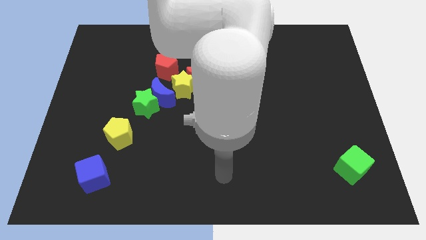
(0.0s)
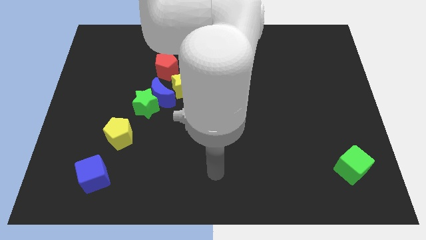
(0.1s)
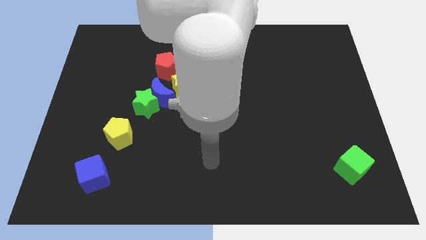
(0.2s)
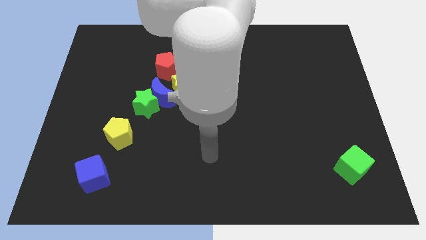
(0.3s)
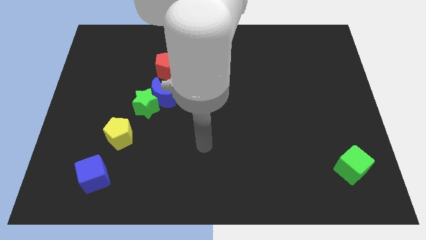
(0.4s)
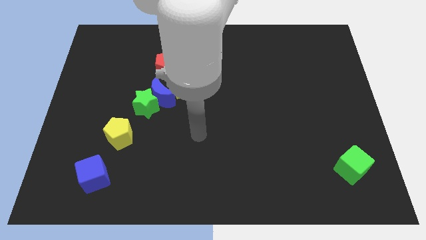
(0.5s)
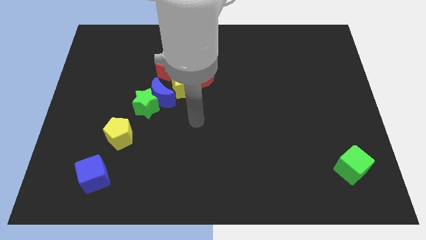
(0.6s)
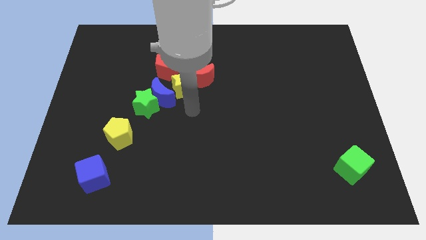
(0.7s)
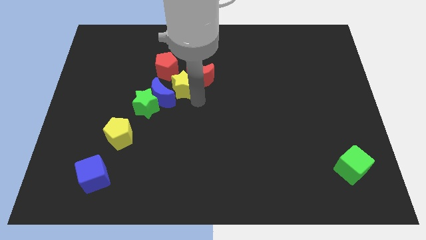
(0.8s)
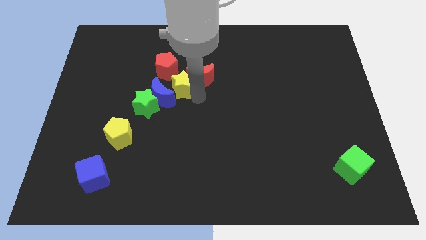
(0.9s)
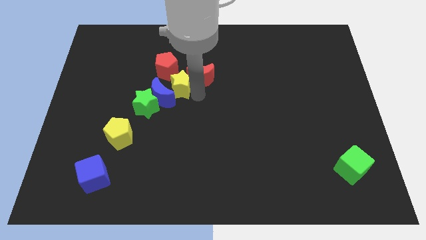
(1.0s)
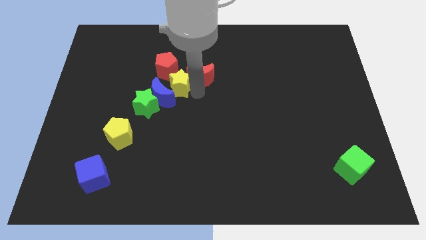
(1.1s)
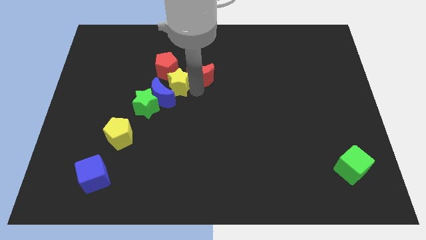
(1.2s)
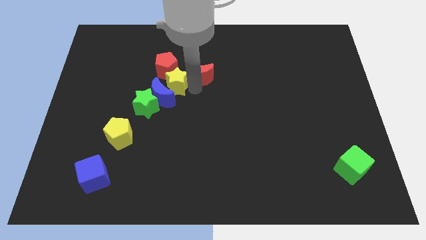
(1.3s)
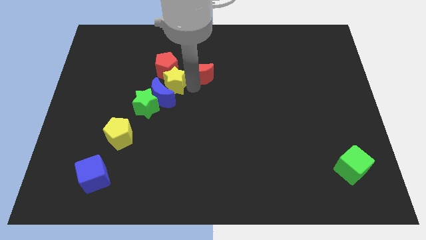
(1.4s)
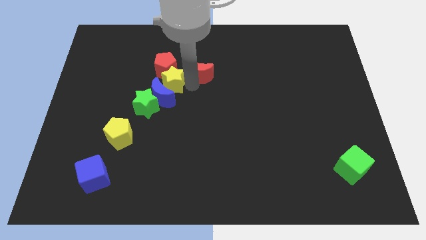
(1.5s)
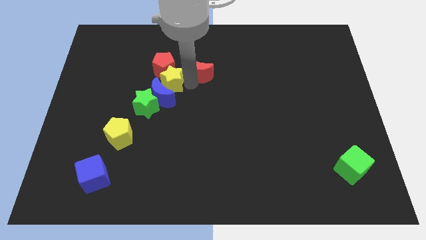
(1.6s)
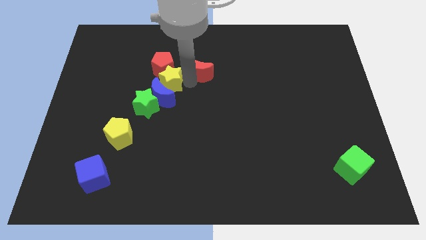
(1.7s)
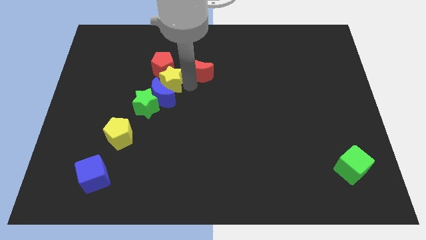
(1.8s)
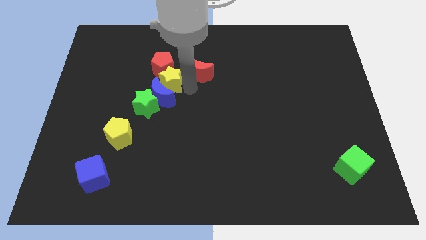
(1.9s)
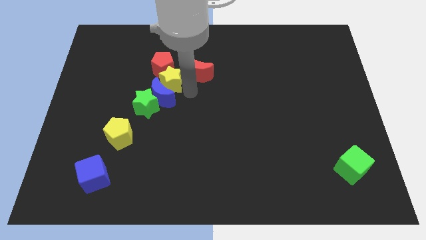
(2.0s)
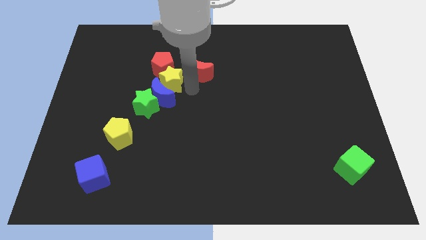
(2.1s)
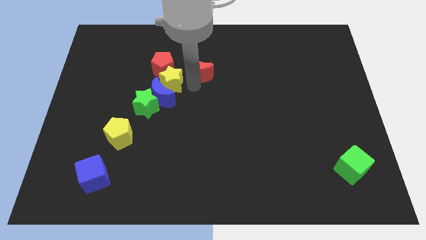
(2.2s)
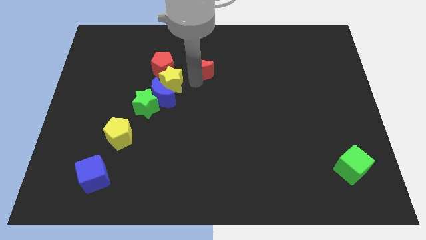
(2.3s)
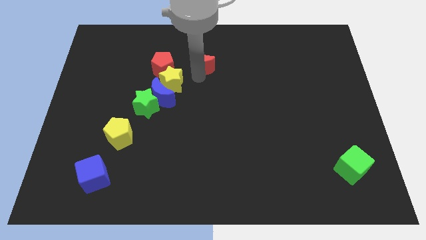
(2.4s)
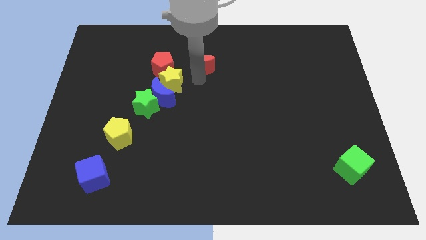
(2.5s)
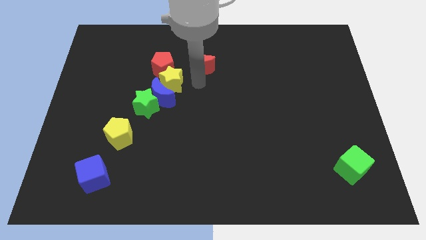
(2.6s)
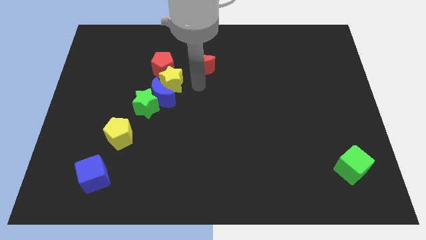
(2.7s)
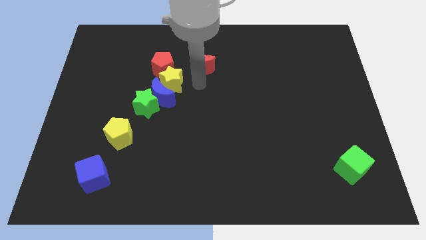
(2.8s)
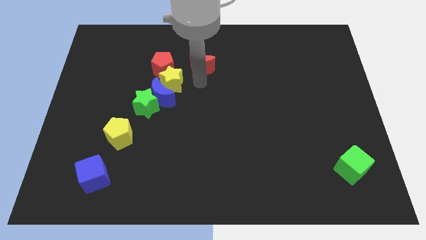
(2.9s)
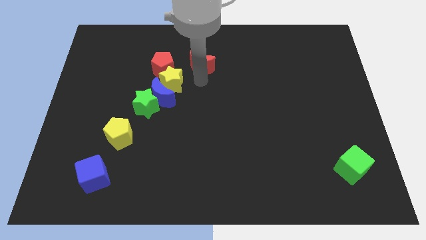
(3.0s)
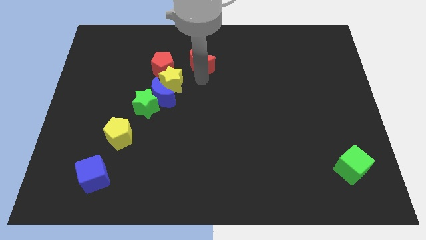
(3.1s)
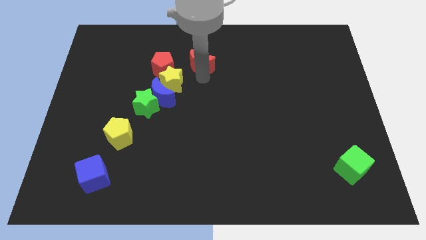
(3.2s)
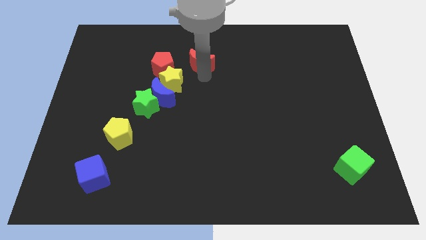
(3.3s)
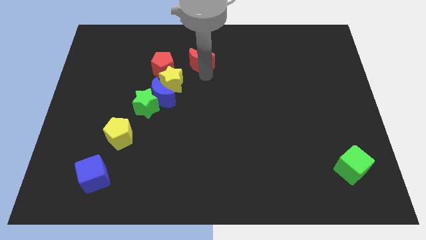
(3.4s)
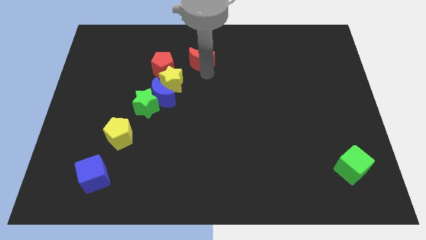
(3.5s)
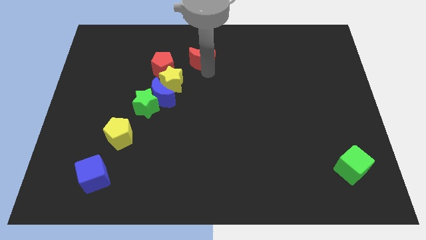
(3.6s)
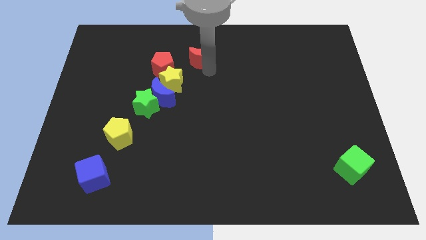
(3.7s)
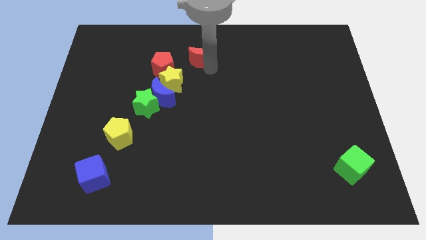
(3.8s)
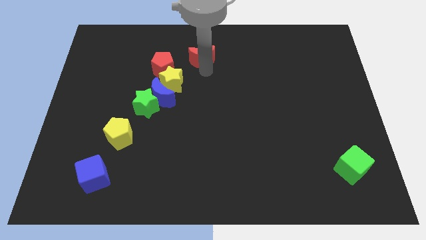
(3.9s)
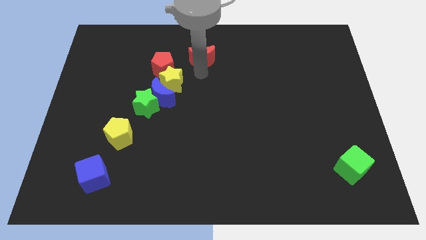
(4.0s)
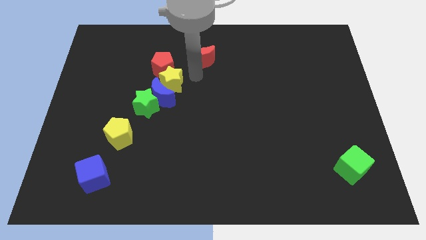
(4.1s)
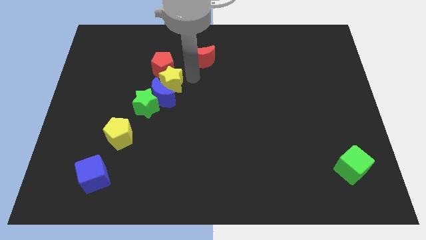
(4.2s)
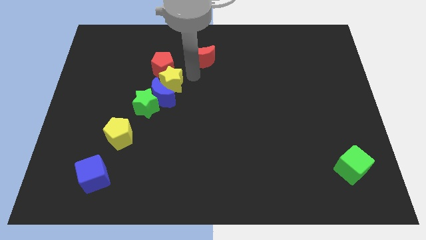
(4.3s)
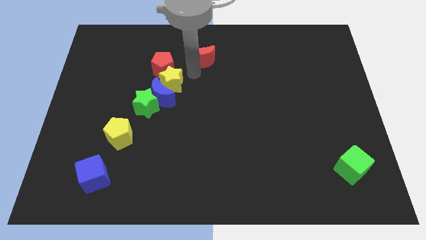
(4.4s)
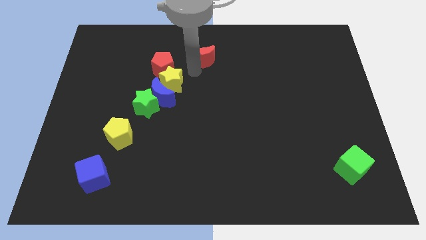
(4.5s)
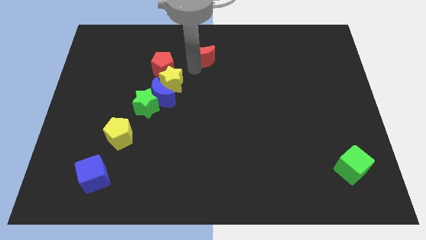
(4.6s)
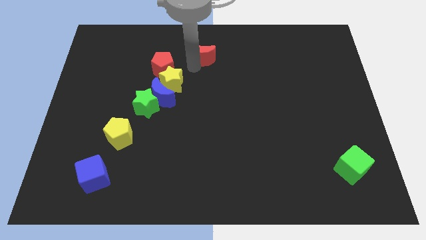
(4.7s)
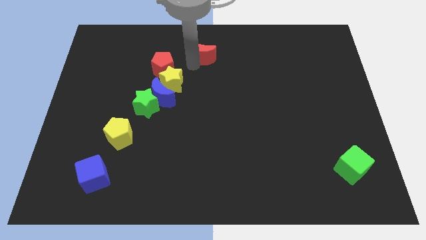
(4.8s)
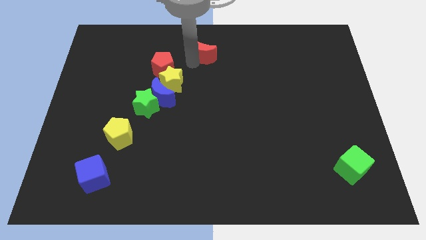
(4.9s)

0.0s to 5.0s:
move the red moon to the top side

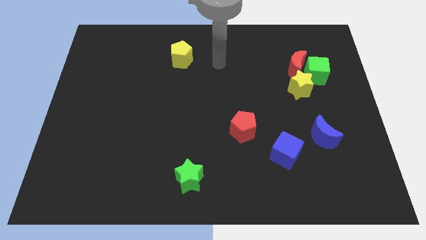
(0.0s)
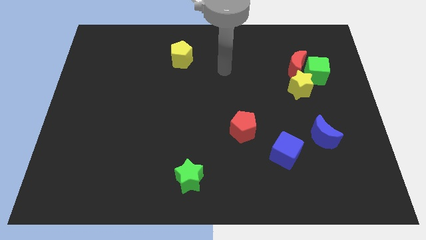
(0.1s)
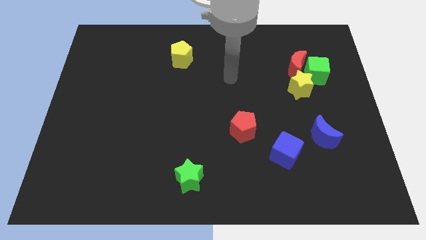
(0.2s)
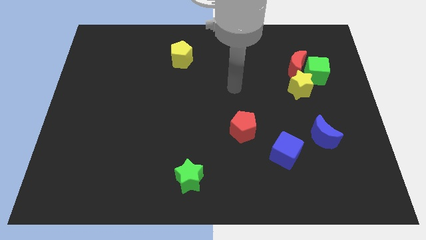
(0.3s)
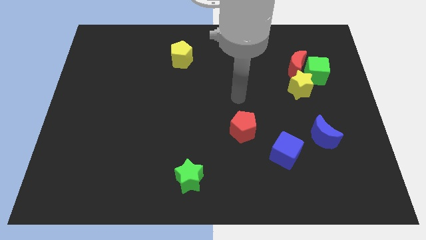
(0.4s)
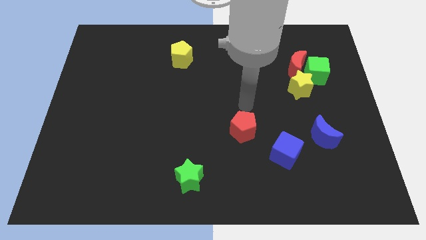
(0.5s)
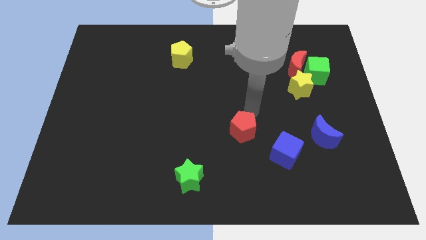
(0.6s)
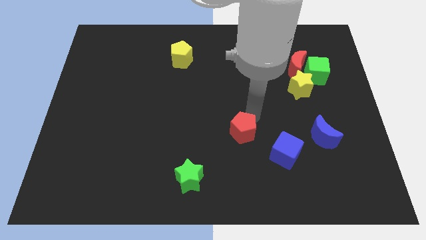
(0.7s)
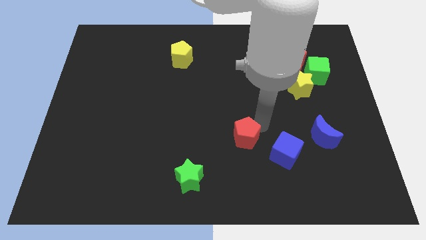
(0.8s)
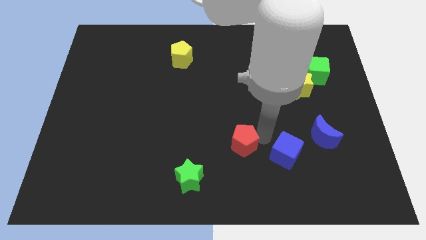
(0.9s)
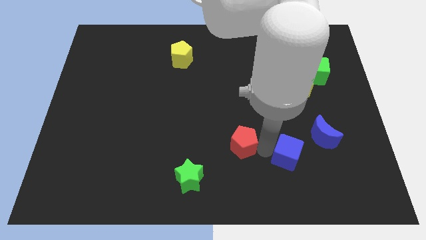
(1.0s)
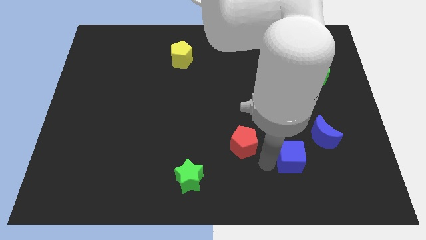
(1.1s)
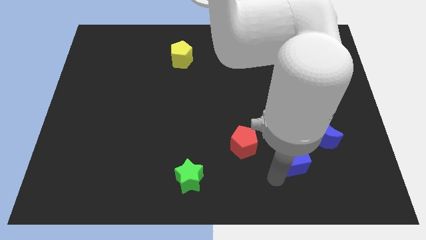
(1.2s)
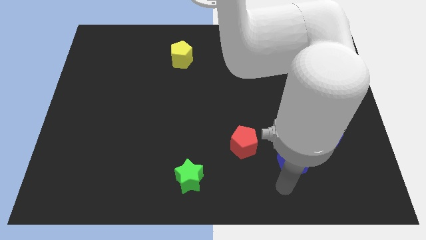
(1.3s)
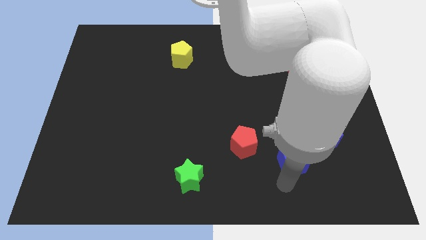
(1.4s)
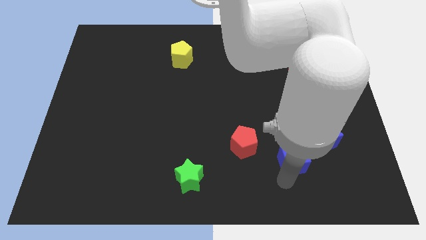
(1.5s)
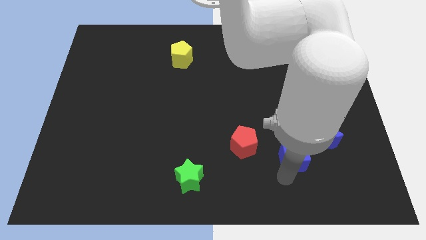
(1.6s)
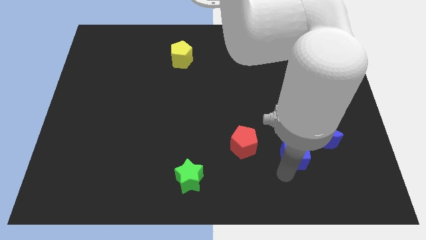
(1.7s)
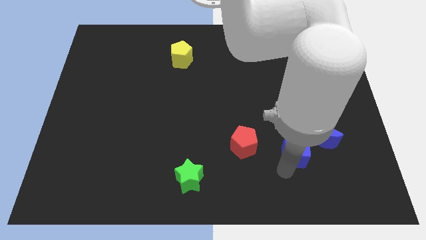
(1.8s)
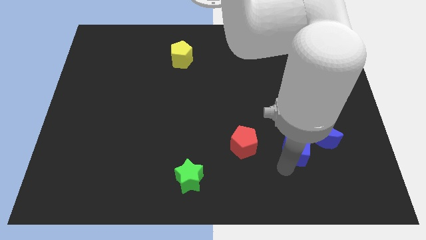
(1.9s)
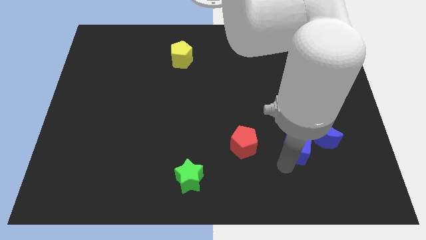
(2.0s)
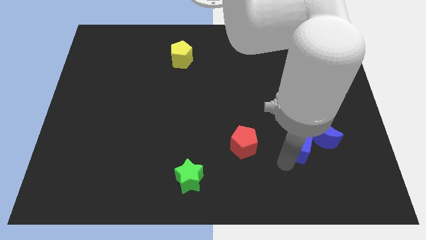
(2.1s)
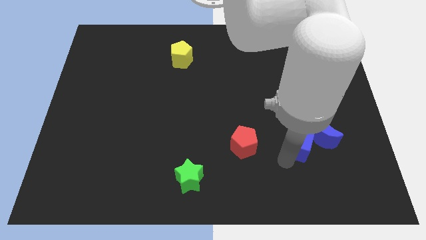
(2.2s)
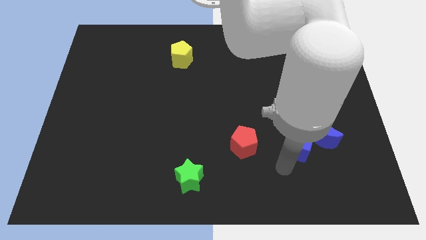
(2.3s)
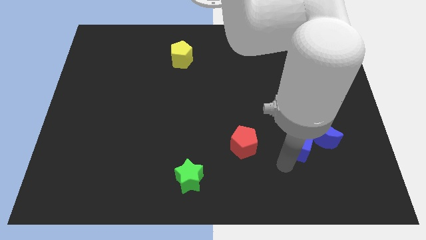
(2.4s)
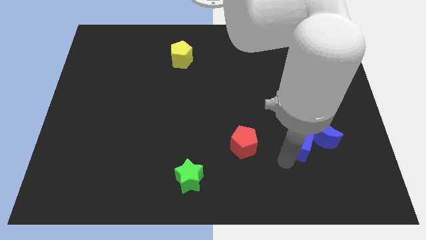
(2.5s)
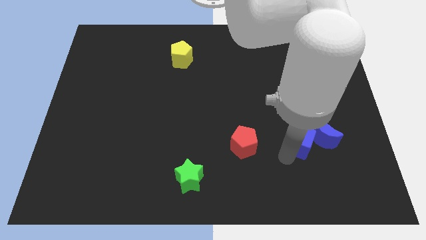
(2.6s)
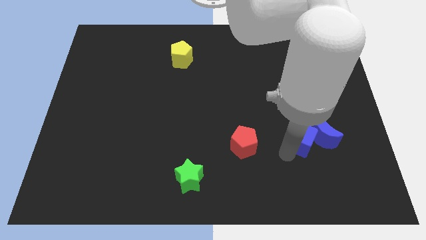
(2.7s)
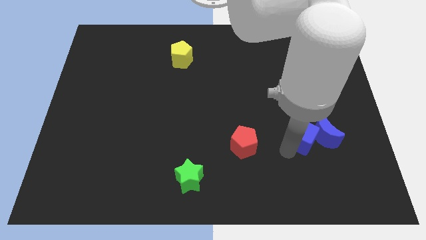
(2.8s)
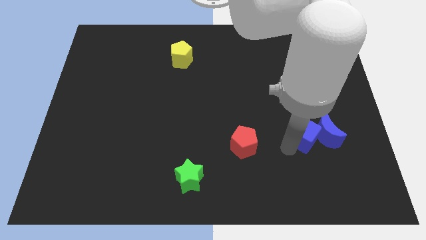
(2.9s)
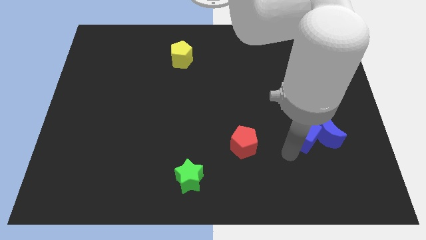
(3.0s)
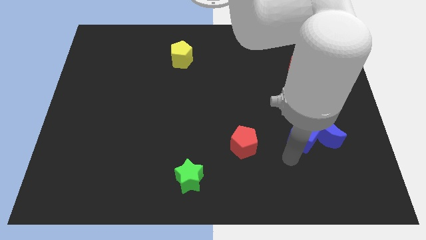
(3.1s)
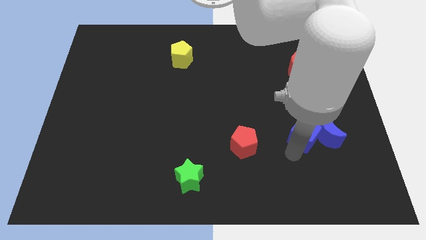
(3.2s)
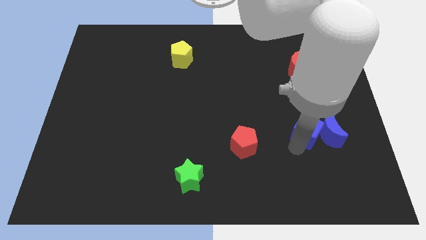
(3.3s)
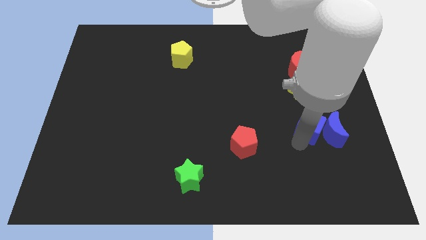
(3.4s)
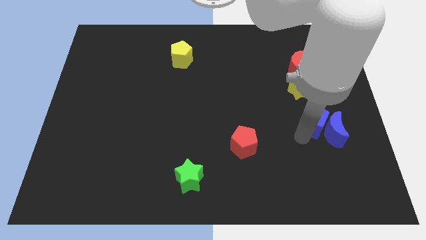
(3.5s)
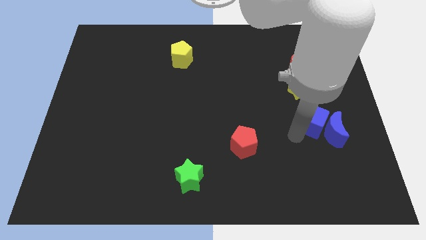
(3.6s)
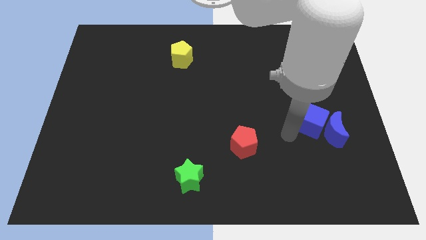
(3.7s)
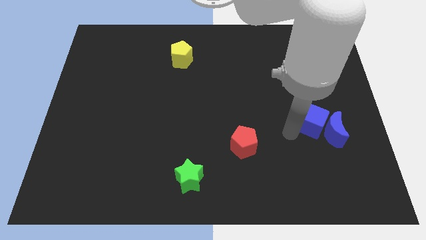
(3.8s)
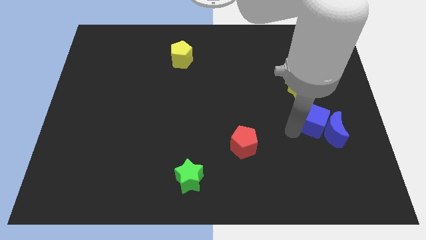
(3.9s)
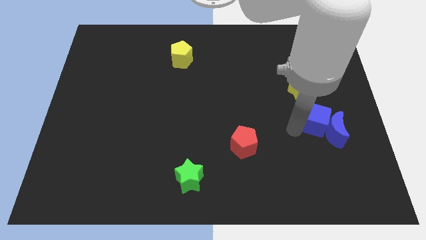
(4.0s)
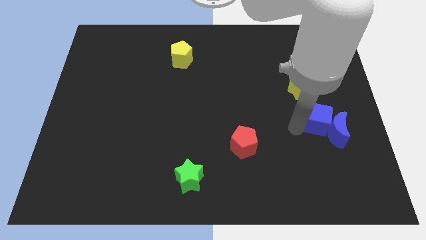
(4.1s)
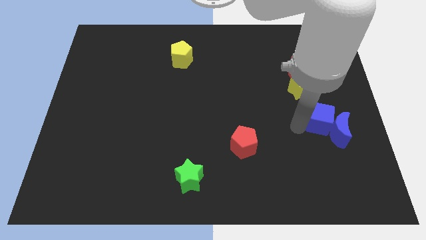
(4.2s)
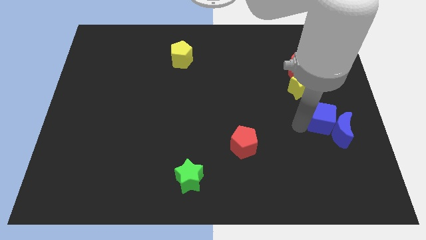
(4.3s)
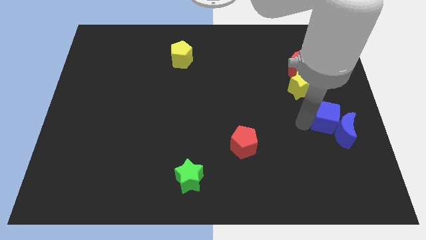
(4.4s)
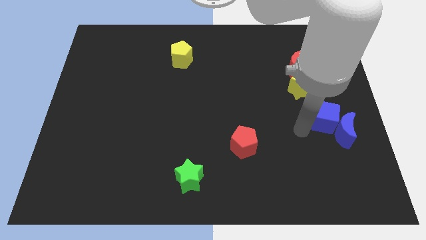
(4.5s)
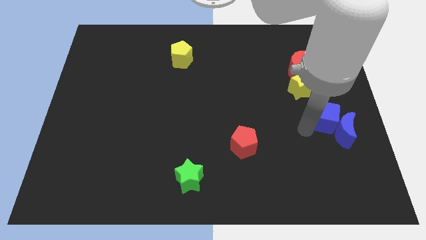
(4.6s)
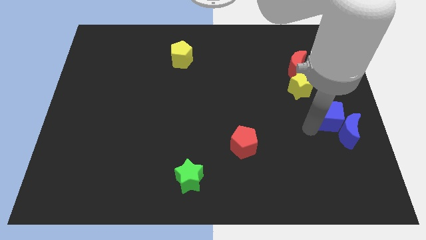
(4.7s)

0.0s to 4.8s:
push the blue cube to the center right
